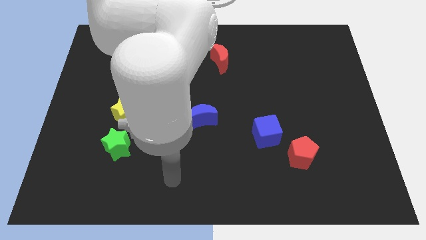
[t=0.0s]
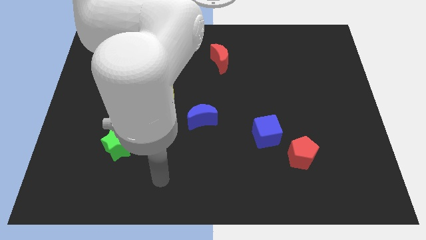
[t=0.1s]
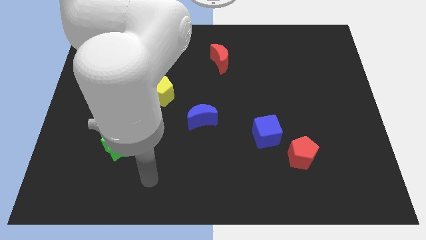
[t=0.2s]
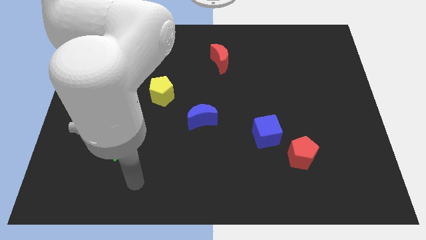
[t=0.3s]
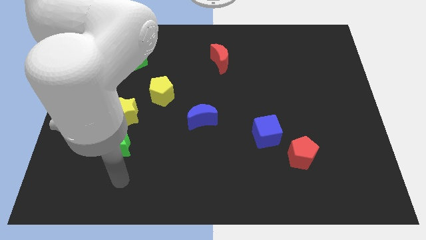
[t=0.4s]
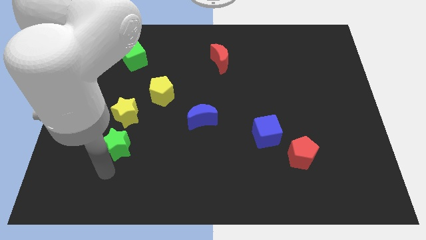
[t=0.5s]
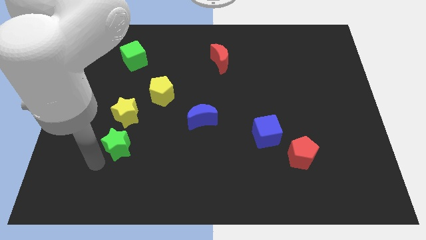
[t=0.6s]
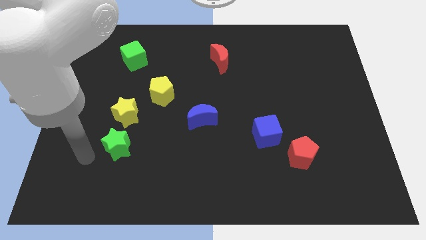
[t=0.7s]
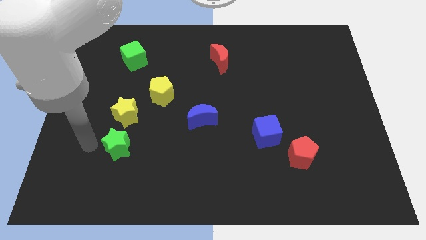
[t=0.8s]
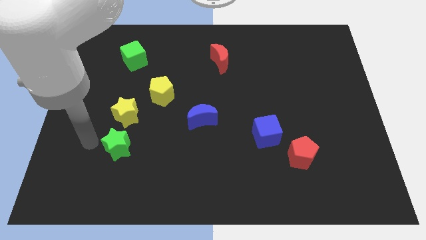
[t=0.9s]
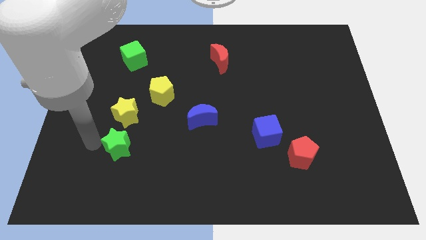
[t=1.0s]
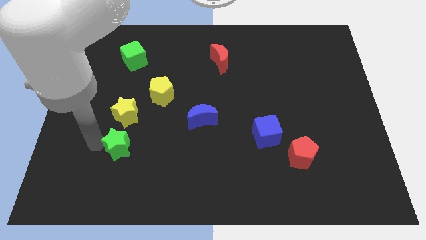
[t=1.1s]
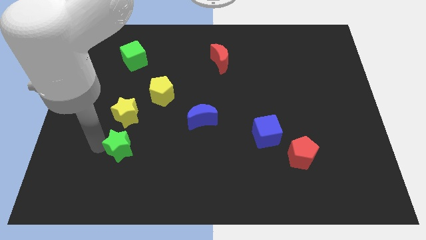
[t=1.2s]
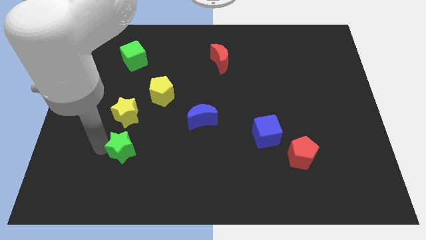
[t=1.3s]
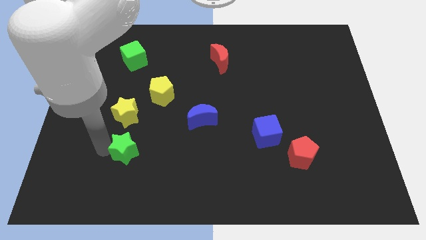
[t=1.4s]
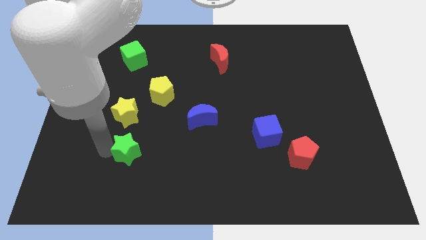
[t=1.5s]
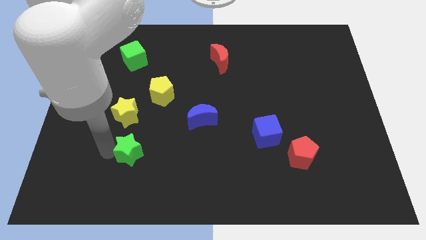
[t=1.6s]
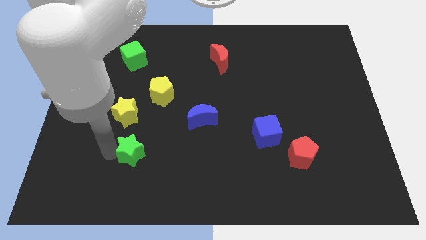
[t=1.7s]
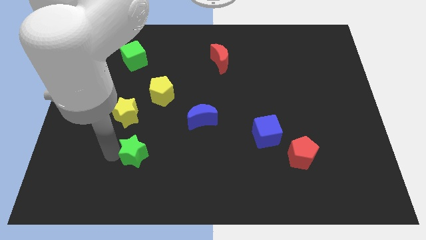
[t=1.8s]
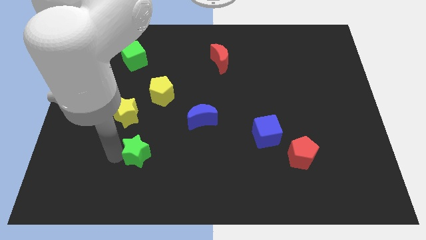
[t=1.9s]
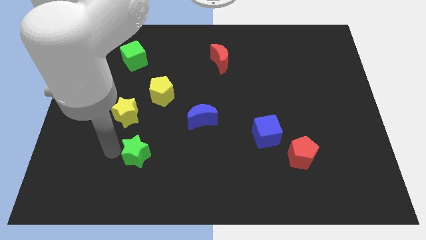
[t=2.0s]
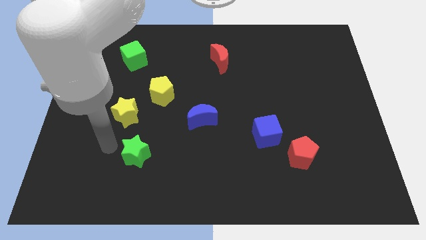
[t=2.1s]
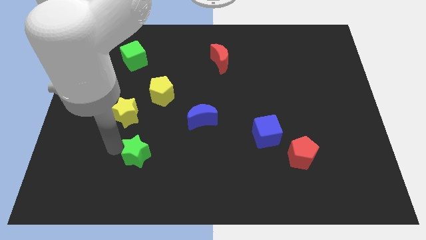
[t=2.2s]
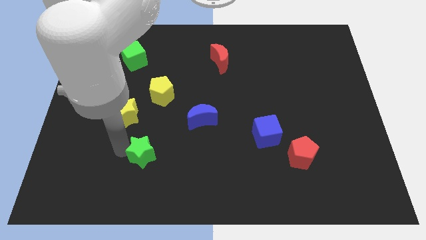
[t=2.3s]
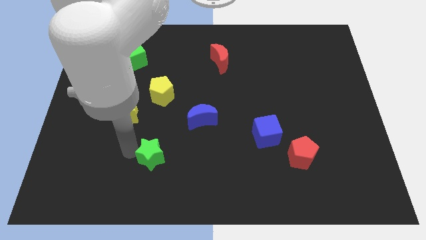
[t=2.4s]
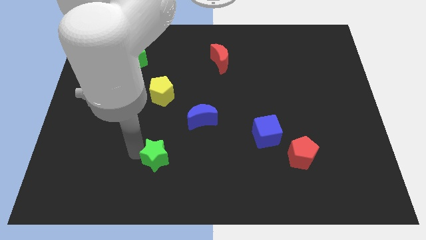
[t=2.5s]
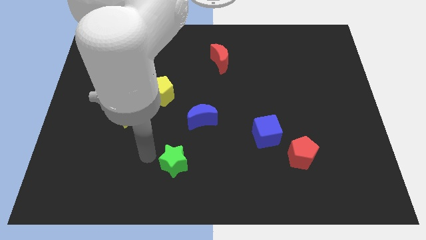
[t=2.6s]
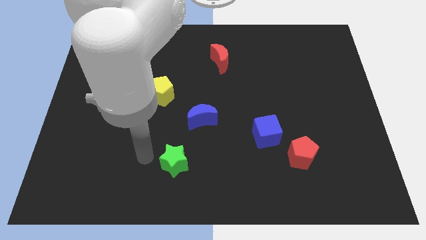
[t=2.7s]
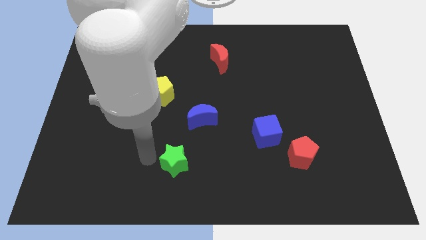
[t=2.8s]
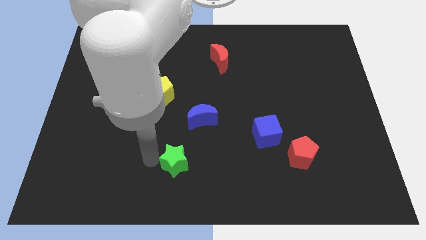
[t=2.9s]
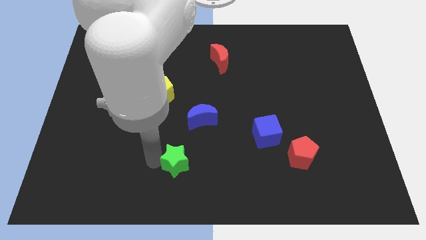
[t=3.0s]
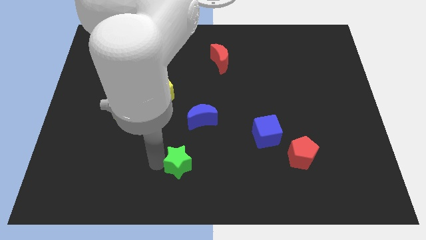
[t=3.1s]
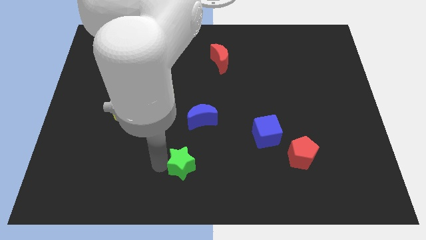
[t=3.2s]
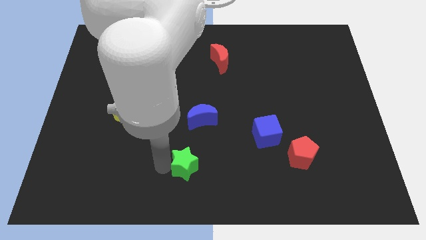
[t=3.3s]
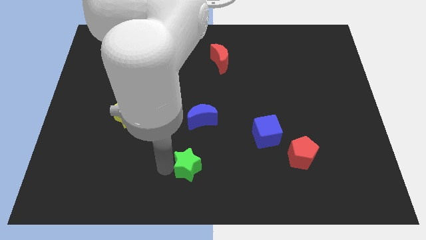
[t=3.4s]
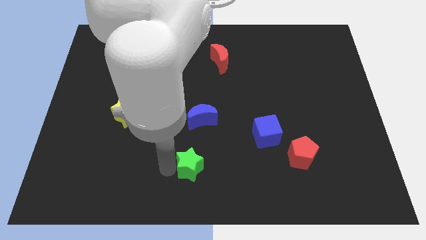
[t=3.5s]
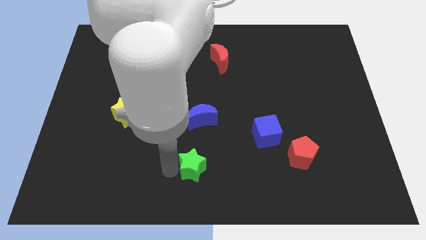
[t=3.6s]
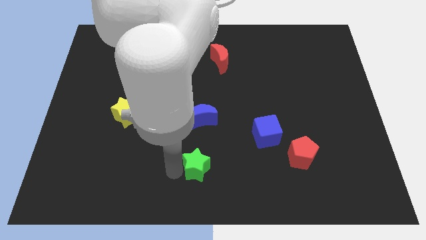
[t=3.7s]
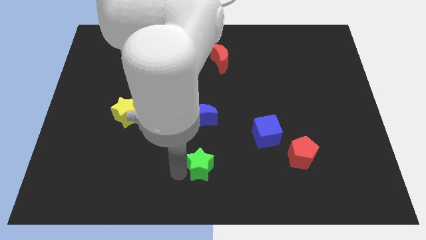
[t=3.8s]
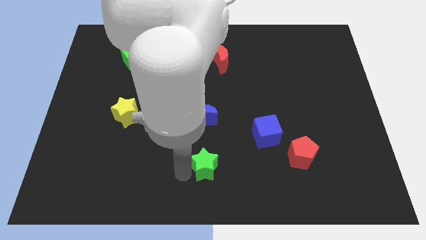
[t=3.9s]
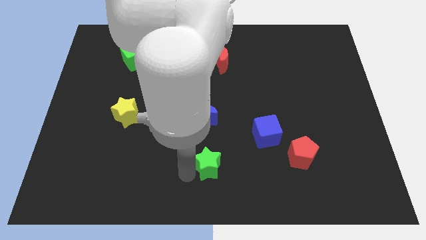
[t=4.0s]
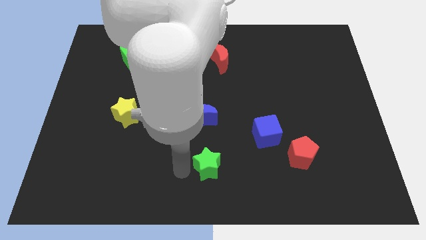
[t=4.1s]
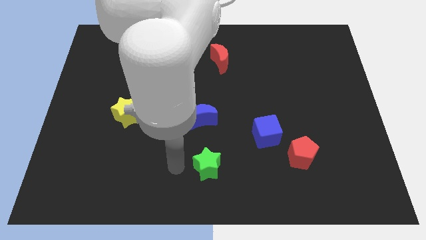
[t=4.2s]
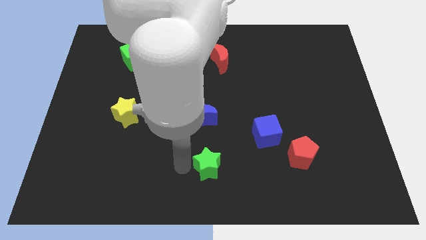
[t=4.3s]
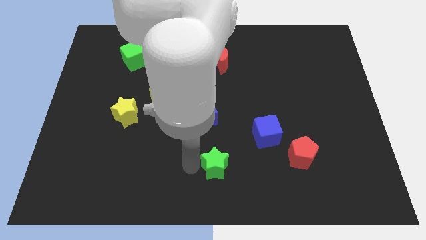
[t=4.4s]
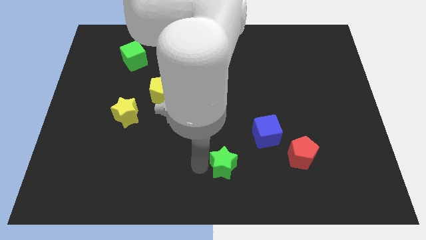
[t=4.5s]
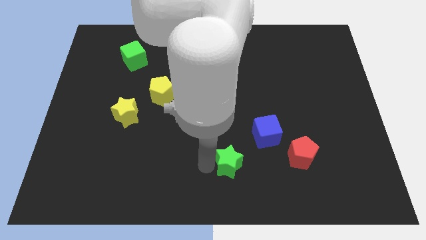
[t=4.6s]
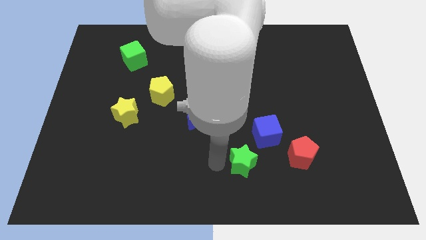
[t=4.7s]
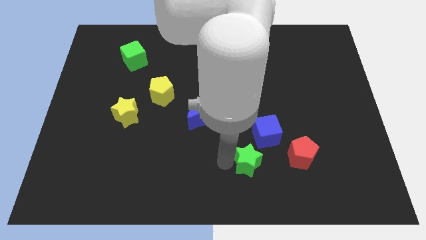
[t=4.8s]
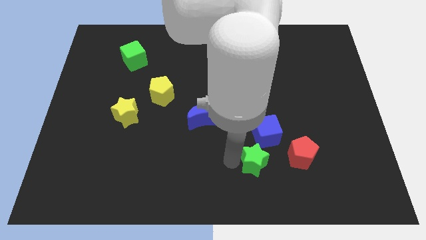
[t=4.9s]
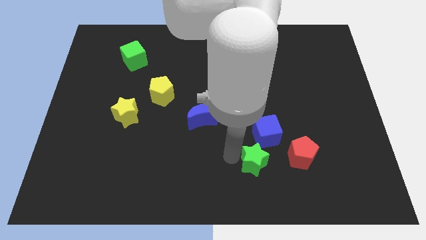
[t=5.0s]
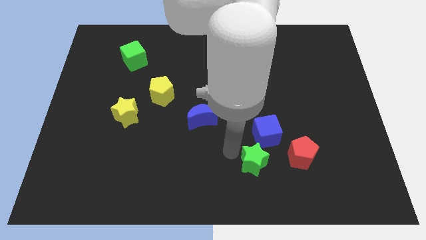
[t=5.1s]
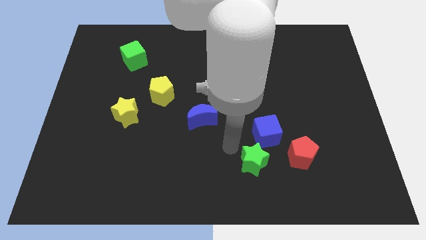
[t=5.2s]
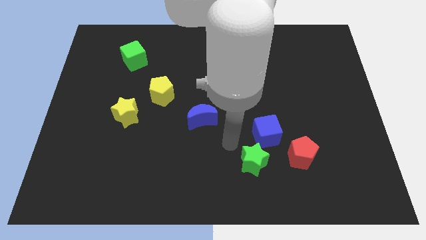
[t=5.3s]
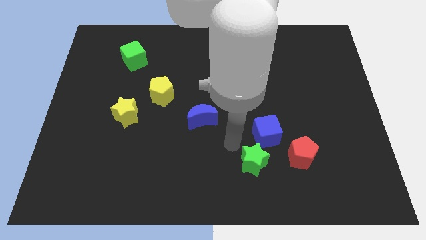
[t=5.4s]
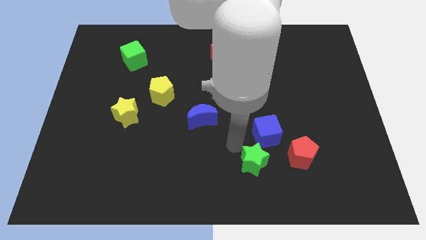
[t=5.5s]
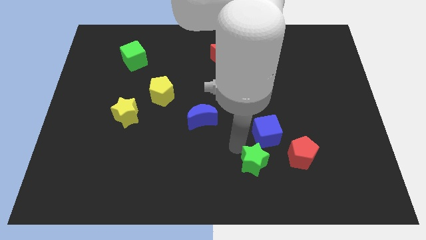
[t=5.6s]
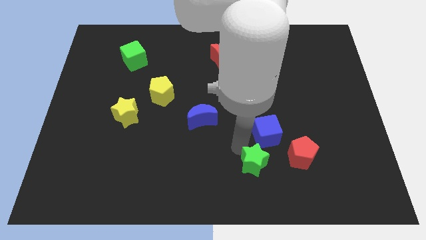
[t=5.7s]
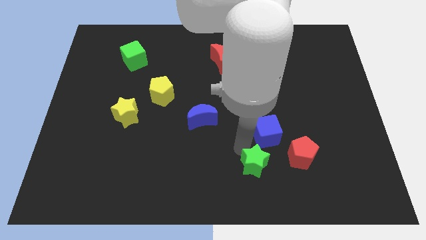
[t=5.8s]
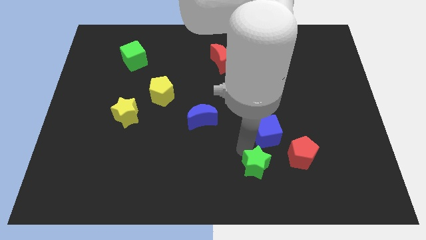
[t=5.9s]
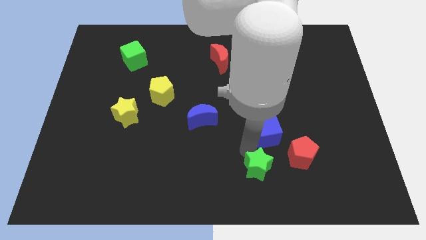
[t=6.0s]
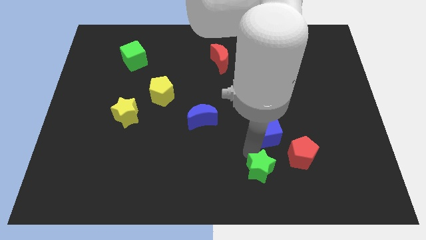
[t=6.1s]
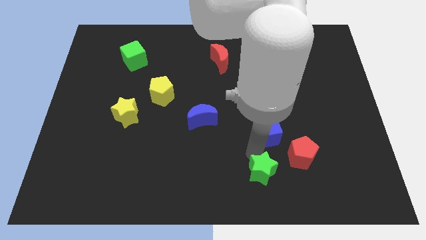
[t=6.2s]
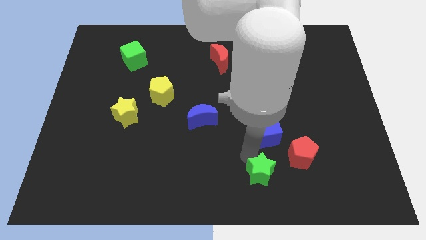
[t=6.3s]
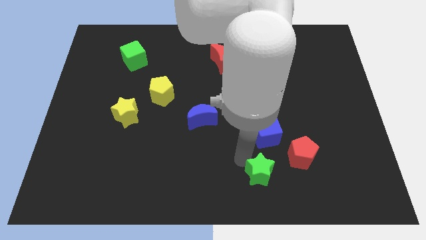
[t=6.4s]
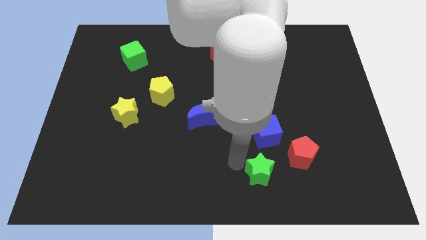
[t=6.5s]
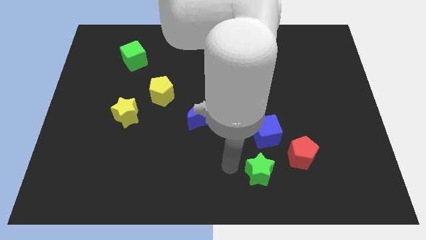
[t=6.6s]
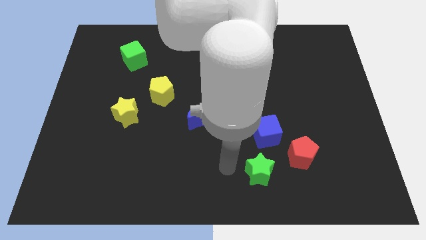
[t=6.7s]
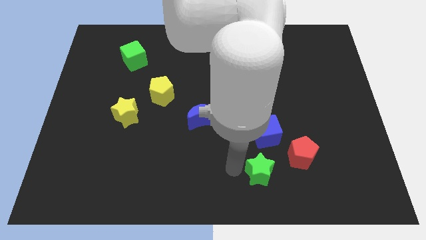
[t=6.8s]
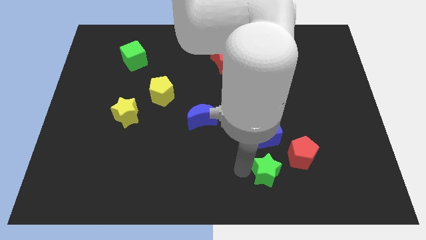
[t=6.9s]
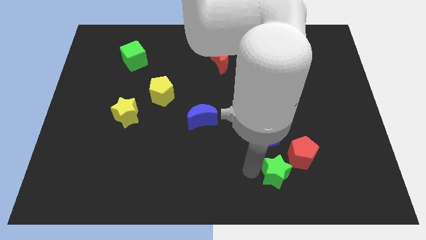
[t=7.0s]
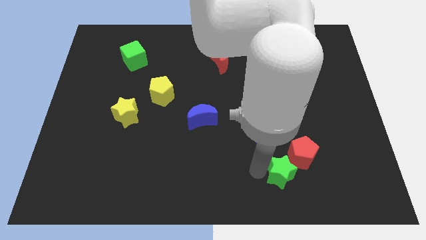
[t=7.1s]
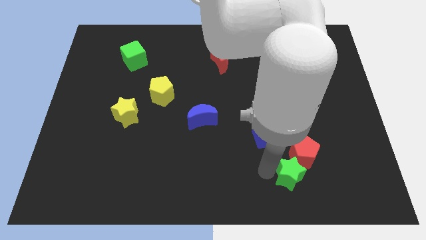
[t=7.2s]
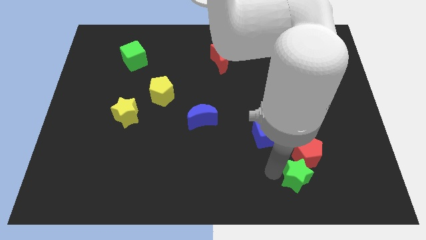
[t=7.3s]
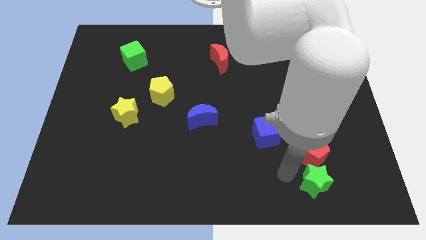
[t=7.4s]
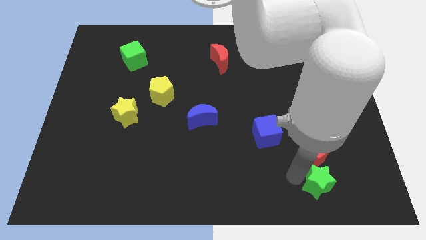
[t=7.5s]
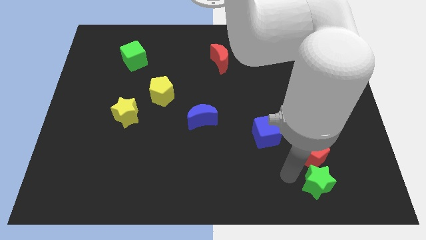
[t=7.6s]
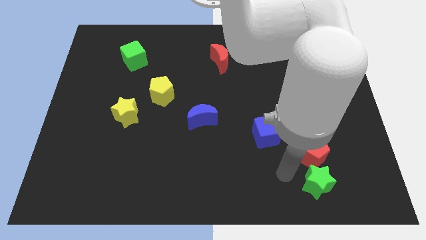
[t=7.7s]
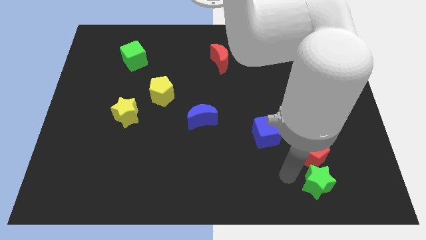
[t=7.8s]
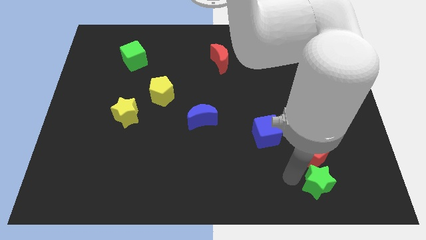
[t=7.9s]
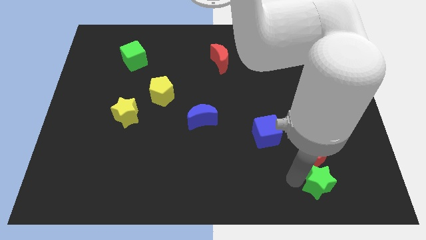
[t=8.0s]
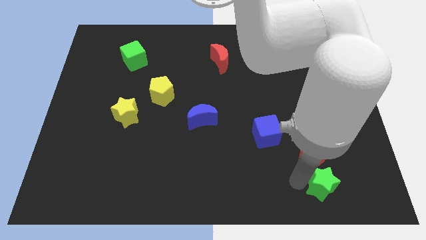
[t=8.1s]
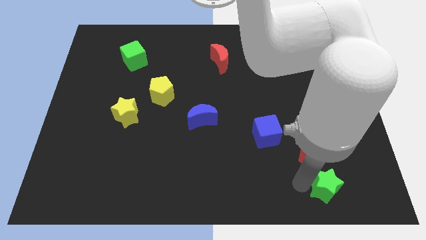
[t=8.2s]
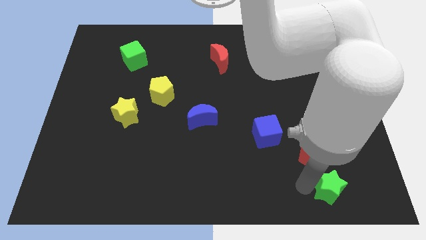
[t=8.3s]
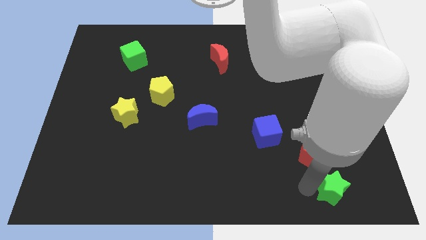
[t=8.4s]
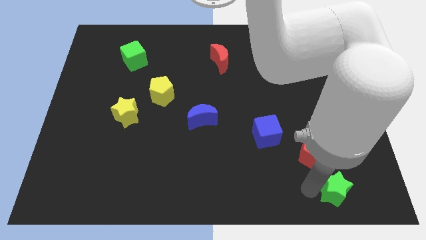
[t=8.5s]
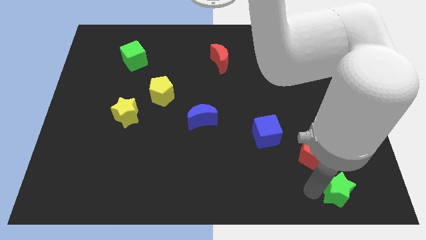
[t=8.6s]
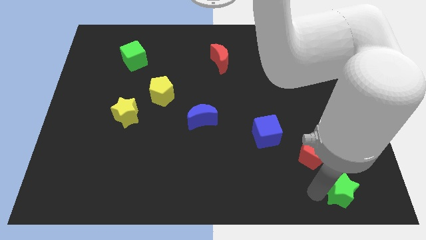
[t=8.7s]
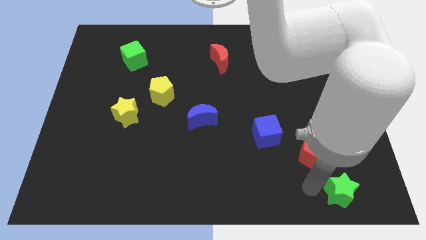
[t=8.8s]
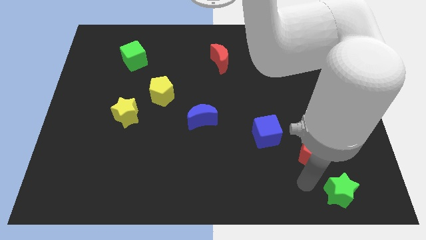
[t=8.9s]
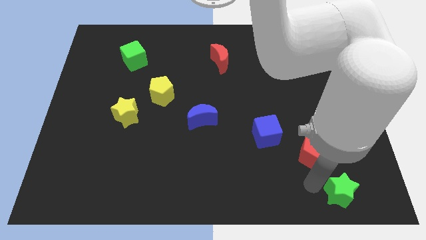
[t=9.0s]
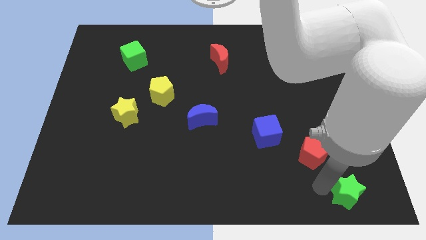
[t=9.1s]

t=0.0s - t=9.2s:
move the green star to the bottom right
